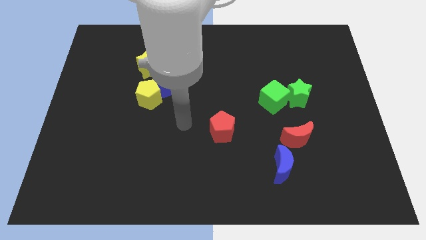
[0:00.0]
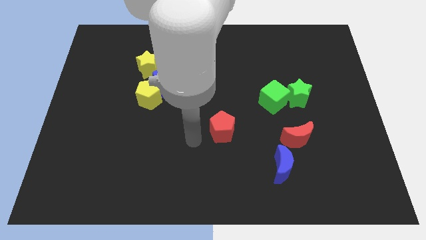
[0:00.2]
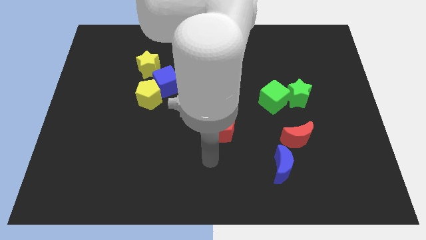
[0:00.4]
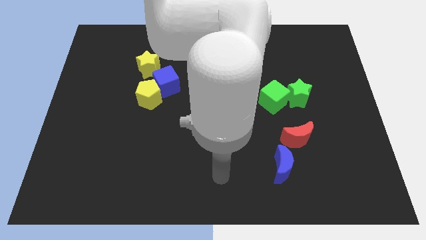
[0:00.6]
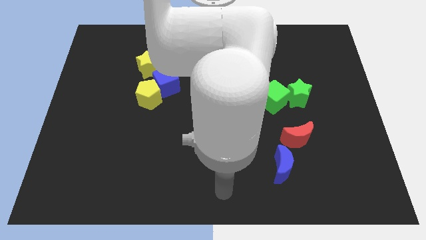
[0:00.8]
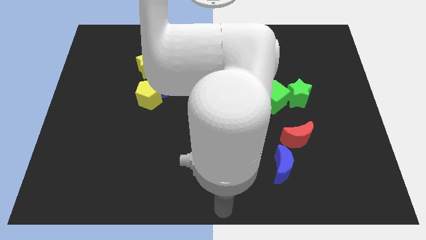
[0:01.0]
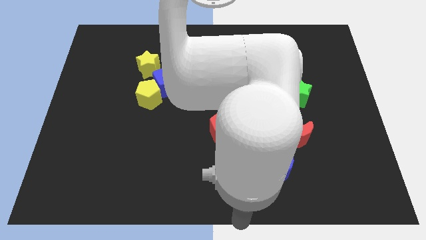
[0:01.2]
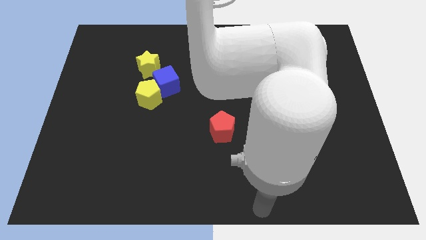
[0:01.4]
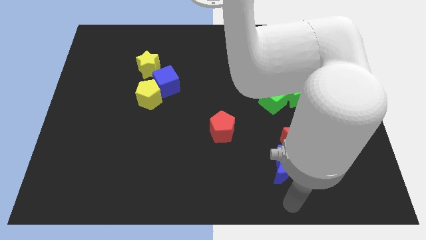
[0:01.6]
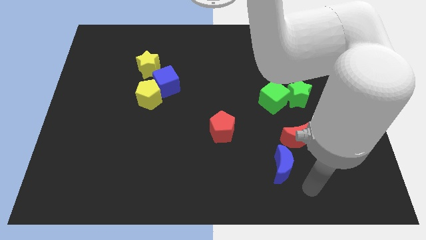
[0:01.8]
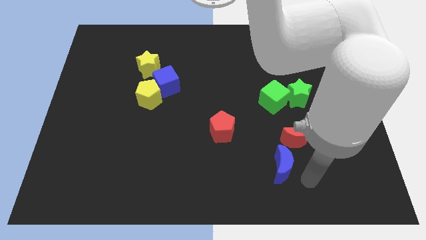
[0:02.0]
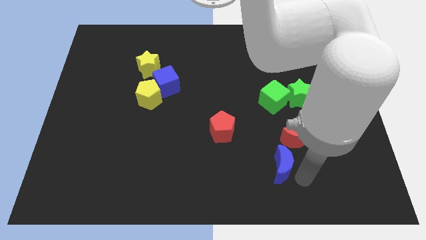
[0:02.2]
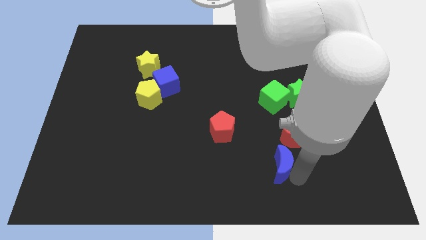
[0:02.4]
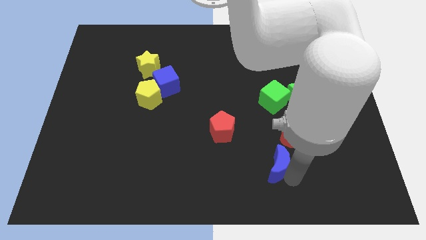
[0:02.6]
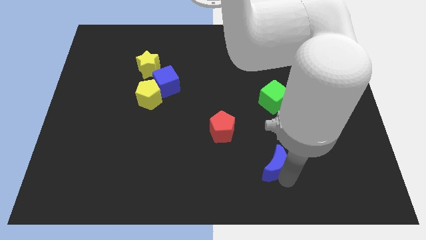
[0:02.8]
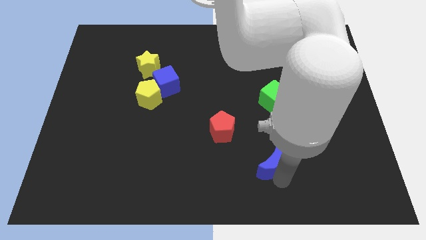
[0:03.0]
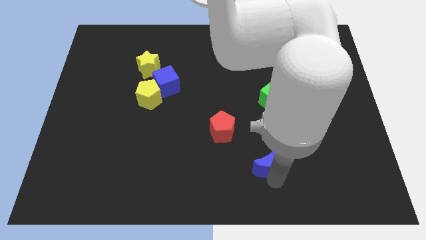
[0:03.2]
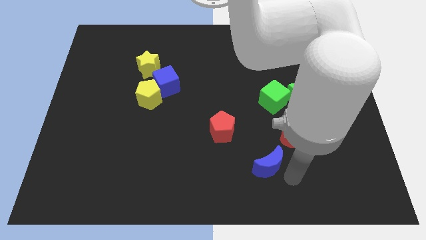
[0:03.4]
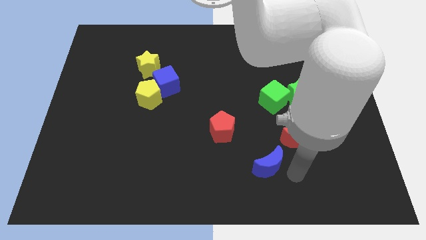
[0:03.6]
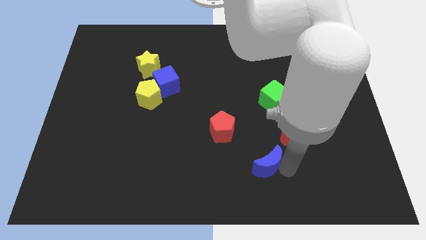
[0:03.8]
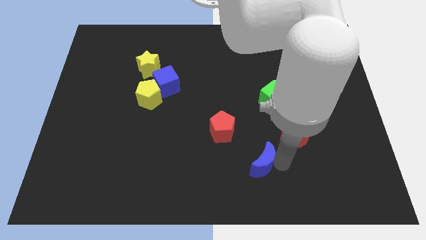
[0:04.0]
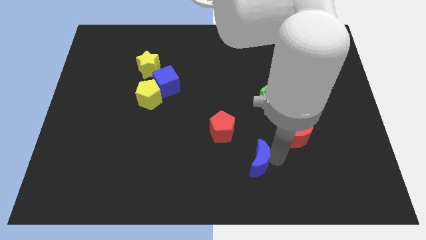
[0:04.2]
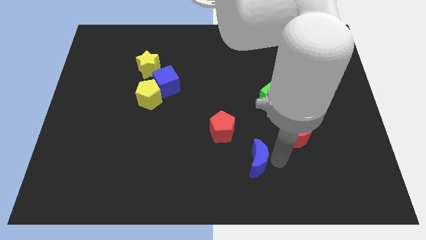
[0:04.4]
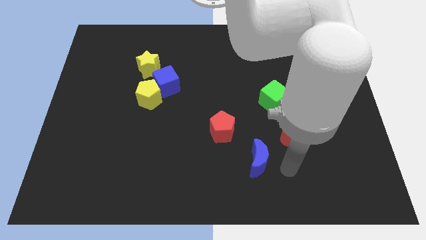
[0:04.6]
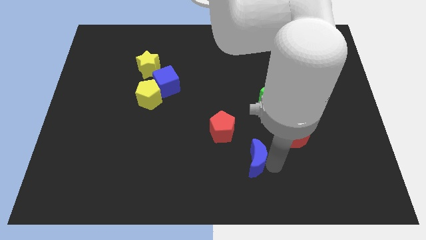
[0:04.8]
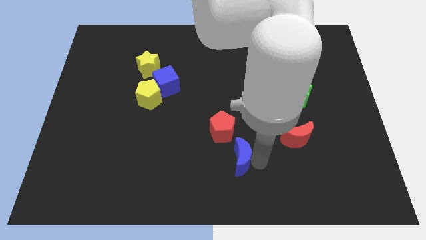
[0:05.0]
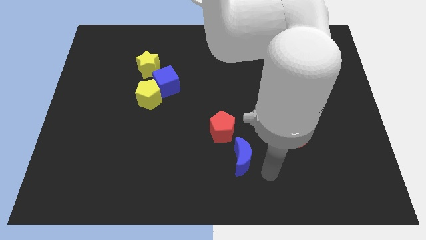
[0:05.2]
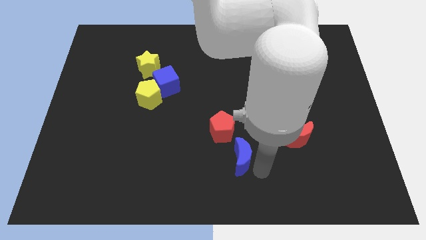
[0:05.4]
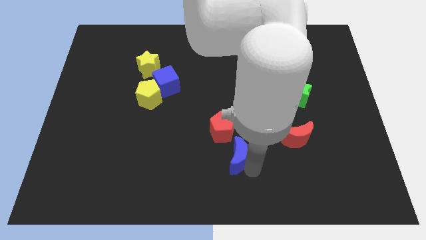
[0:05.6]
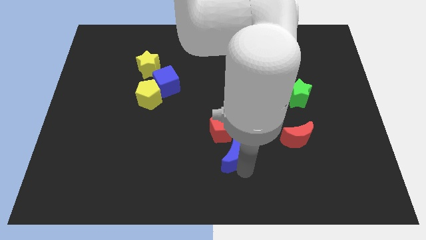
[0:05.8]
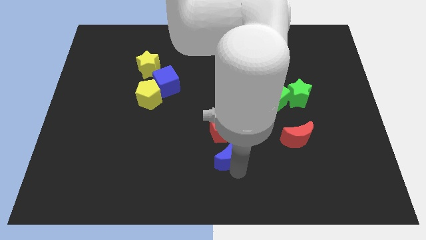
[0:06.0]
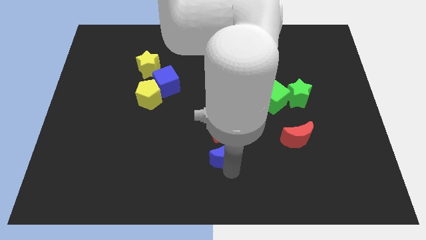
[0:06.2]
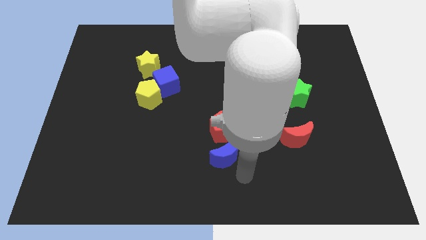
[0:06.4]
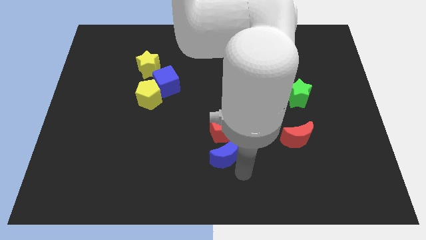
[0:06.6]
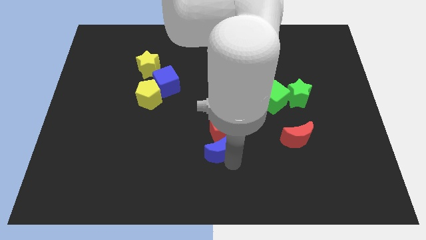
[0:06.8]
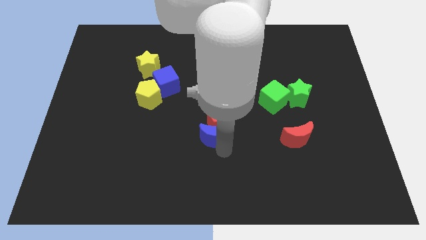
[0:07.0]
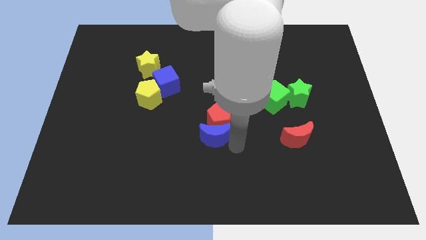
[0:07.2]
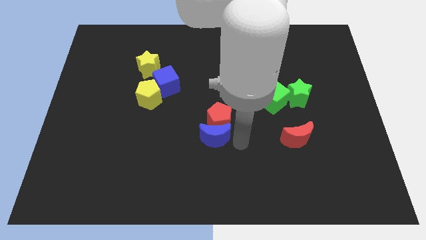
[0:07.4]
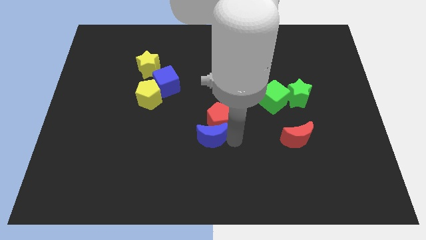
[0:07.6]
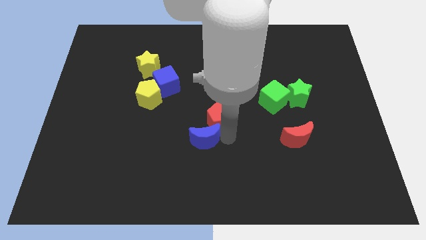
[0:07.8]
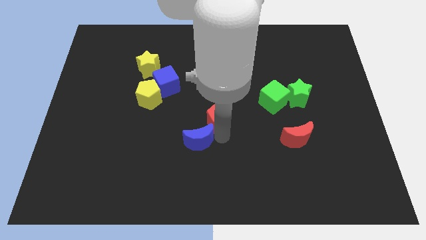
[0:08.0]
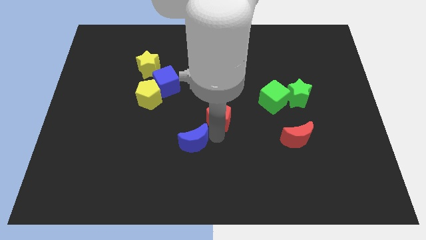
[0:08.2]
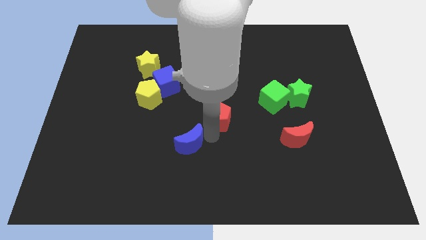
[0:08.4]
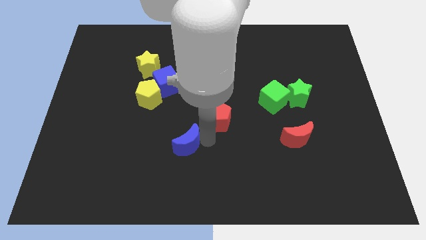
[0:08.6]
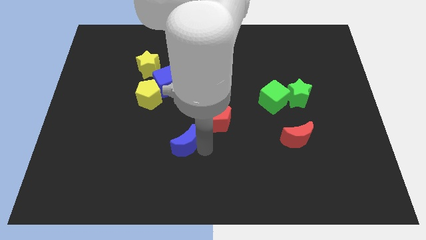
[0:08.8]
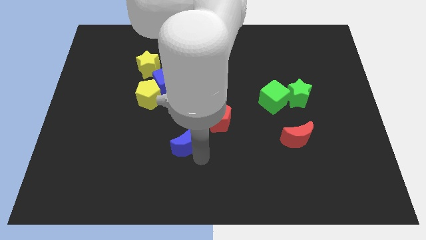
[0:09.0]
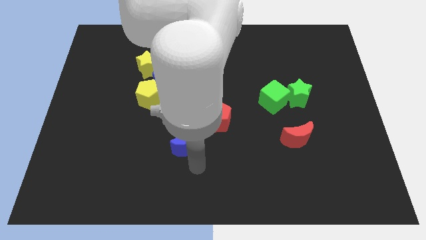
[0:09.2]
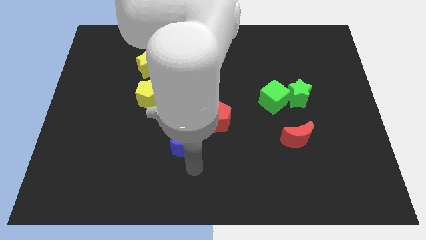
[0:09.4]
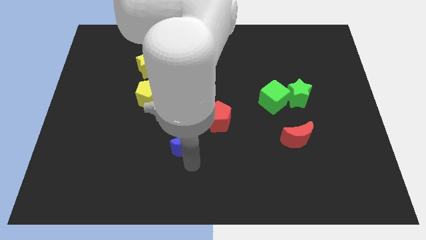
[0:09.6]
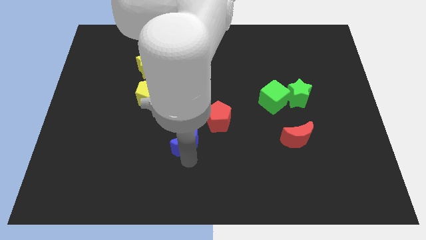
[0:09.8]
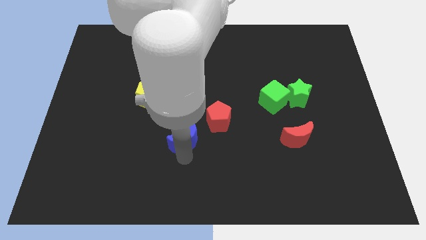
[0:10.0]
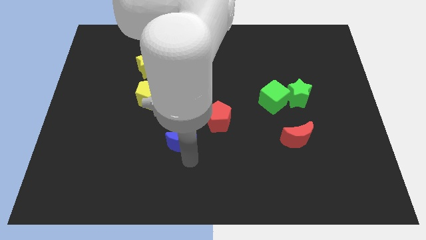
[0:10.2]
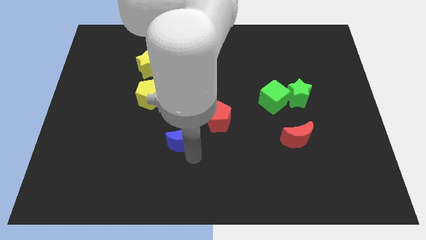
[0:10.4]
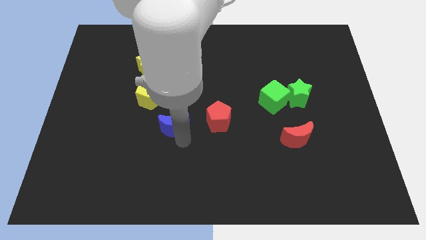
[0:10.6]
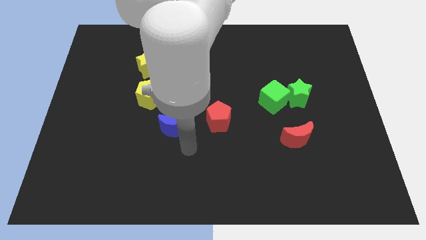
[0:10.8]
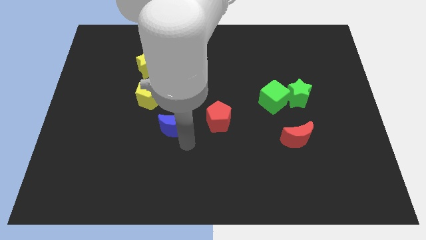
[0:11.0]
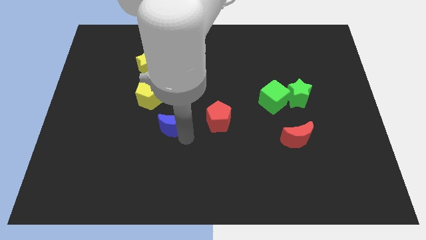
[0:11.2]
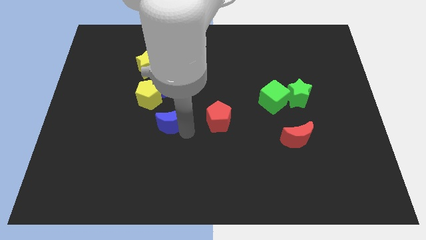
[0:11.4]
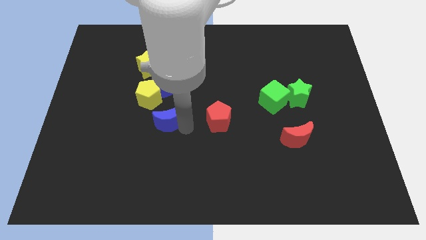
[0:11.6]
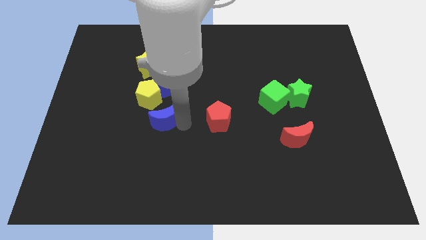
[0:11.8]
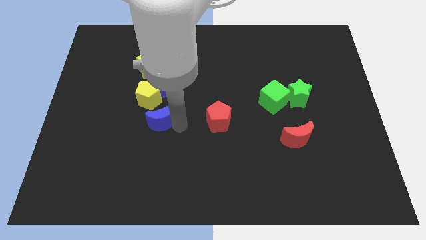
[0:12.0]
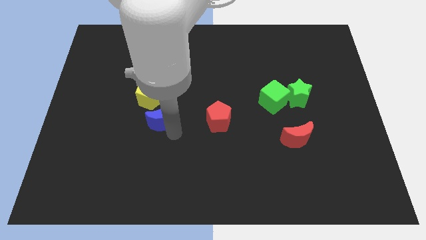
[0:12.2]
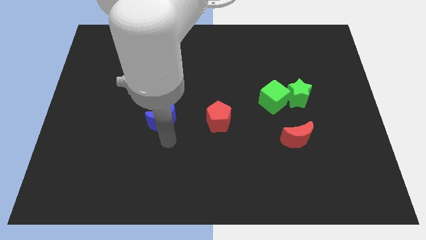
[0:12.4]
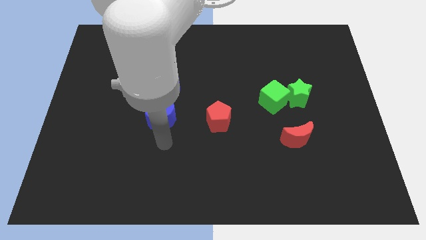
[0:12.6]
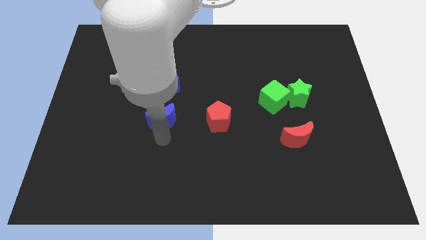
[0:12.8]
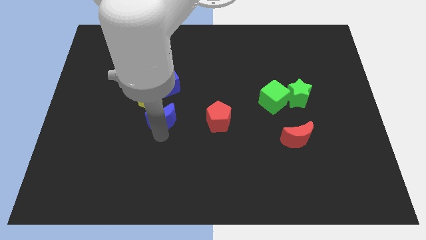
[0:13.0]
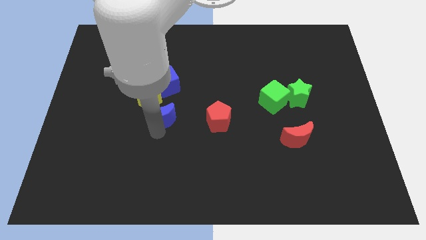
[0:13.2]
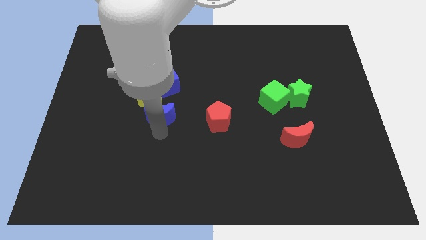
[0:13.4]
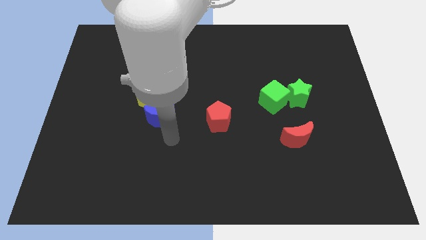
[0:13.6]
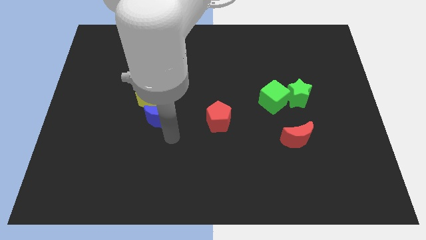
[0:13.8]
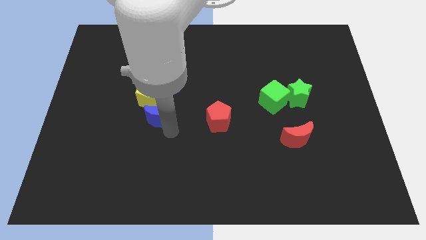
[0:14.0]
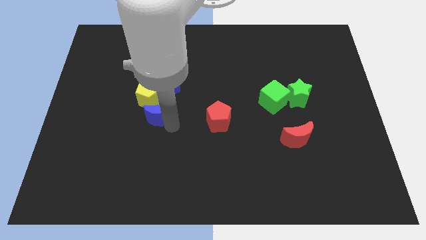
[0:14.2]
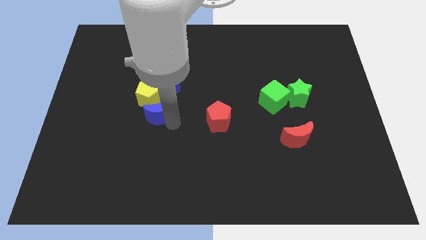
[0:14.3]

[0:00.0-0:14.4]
move the blue moon next to the yellow pentagon

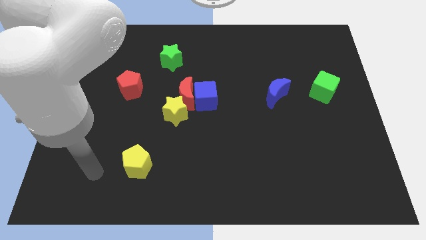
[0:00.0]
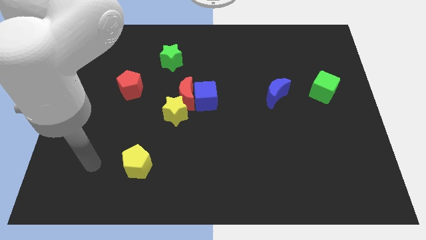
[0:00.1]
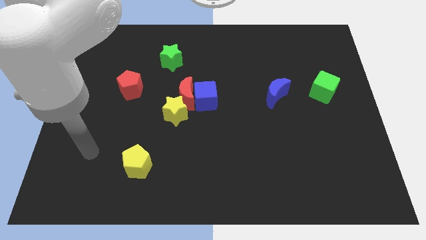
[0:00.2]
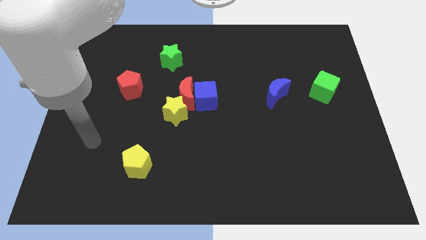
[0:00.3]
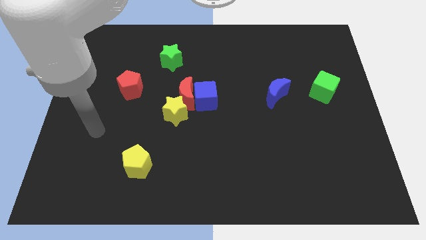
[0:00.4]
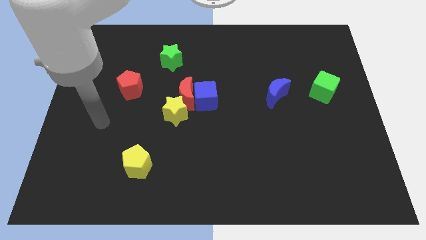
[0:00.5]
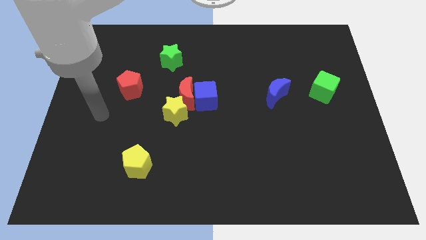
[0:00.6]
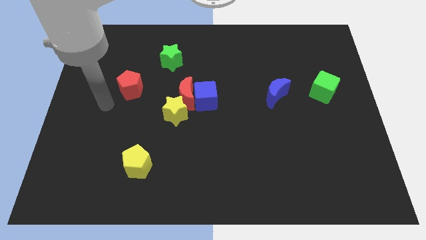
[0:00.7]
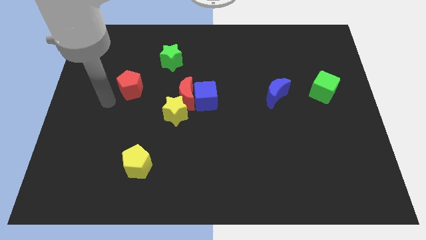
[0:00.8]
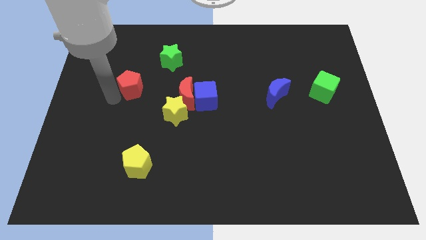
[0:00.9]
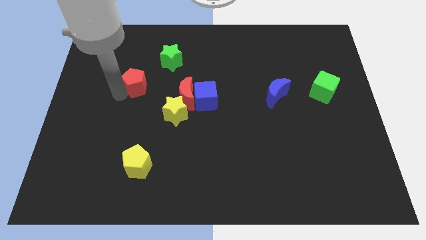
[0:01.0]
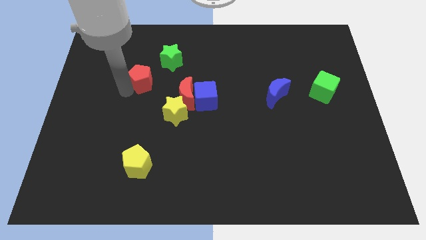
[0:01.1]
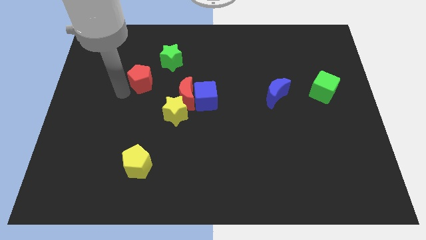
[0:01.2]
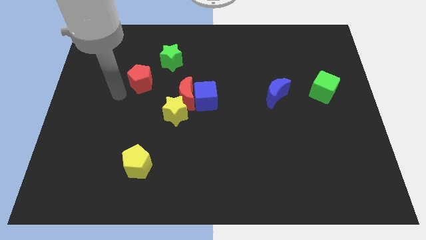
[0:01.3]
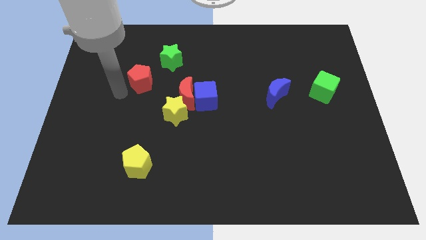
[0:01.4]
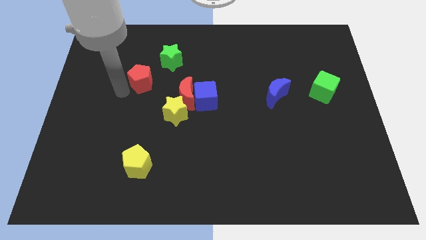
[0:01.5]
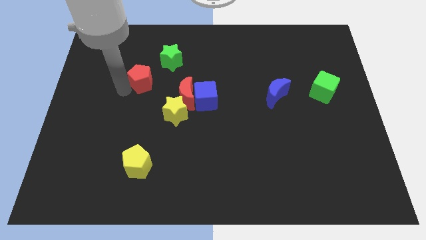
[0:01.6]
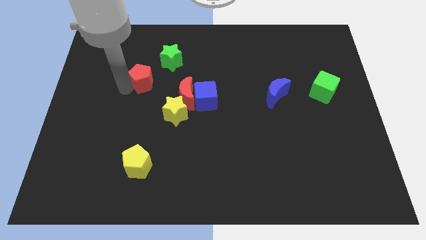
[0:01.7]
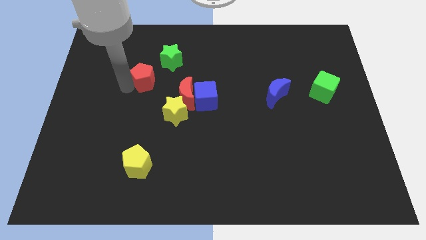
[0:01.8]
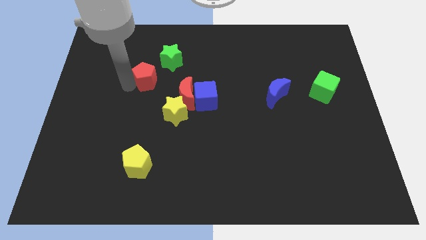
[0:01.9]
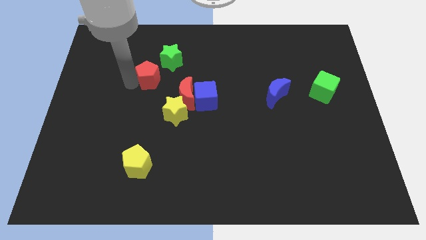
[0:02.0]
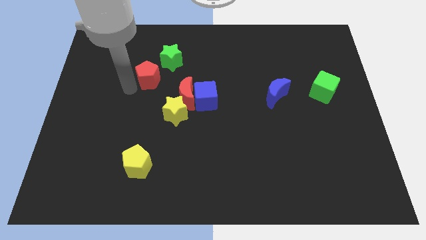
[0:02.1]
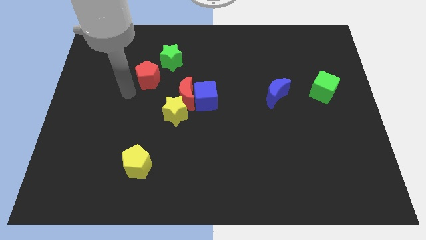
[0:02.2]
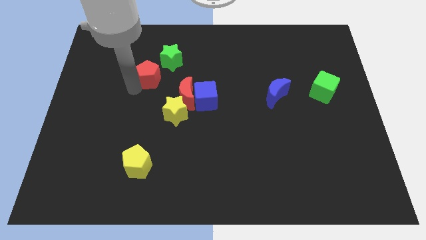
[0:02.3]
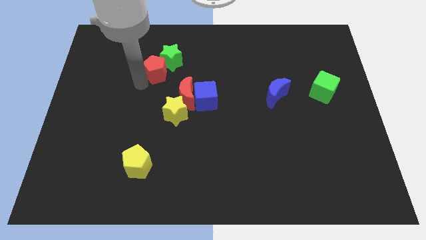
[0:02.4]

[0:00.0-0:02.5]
put the red pentagon towards the green star
